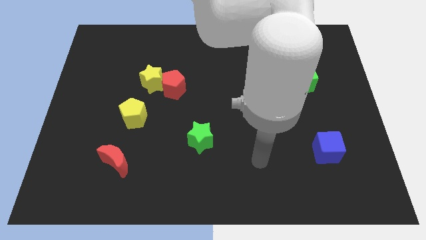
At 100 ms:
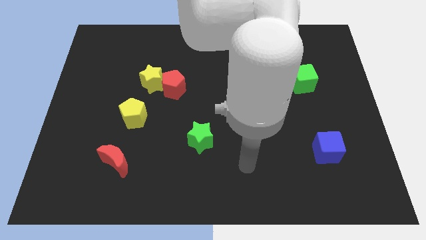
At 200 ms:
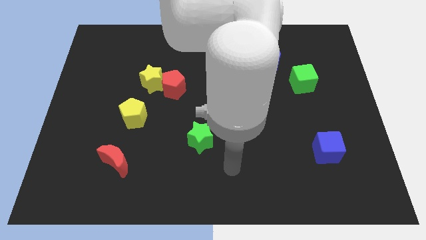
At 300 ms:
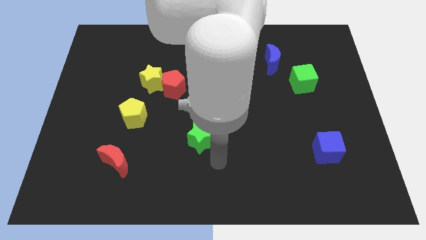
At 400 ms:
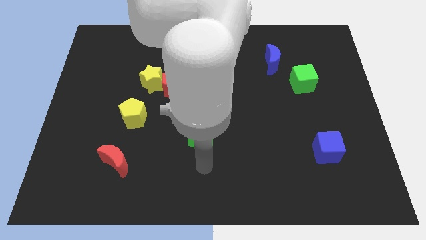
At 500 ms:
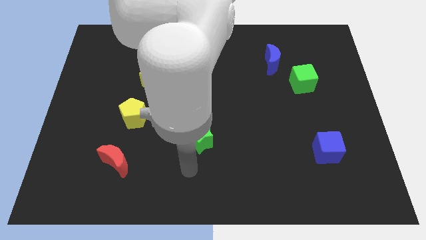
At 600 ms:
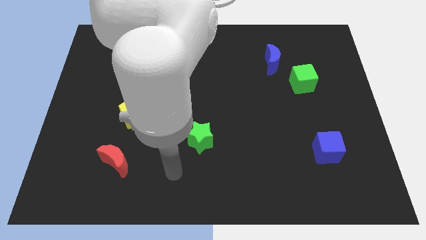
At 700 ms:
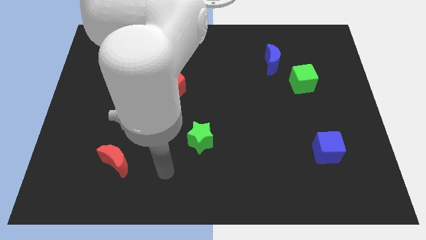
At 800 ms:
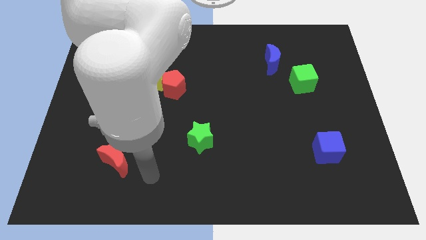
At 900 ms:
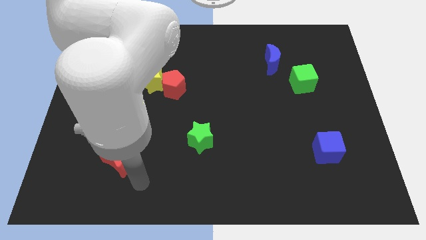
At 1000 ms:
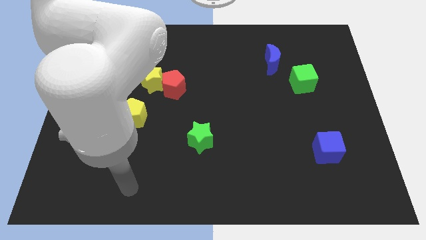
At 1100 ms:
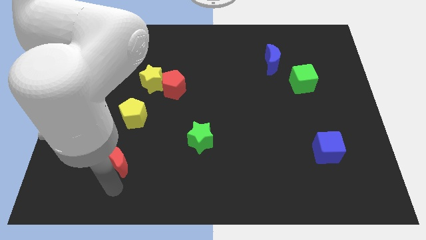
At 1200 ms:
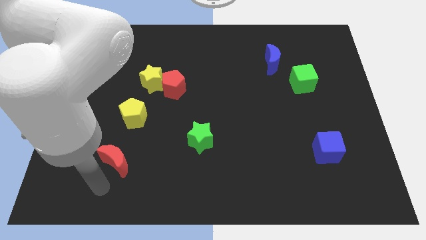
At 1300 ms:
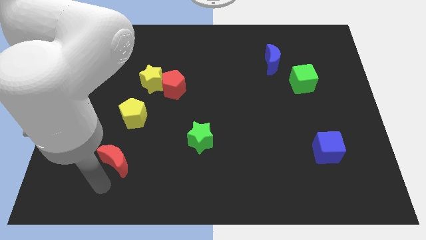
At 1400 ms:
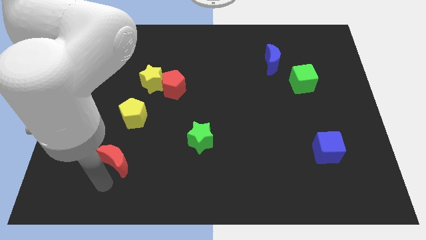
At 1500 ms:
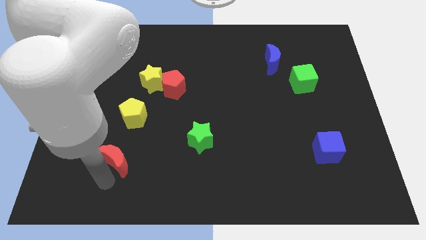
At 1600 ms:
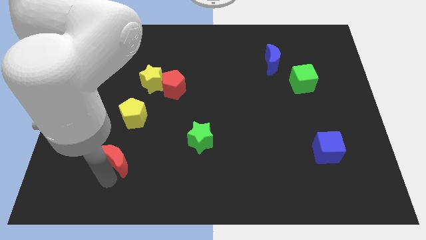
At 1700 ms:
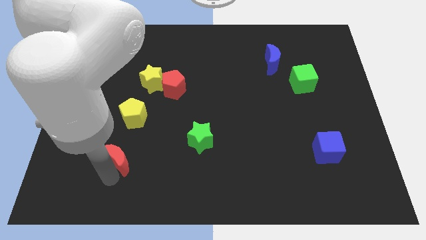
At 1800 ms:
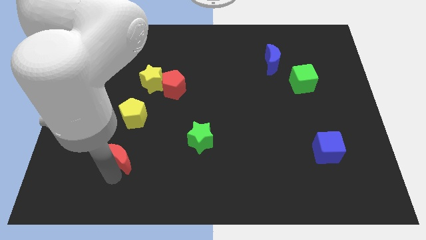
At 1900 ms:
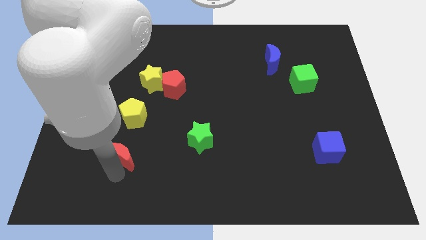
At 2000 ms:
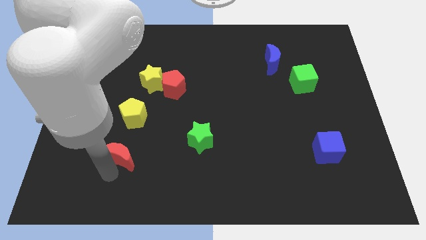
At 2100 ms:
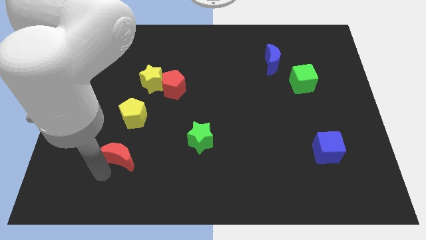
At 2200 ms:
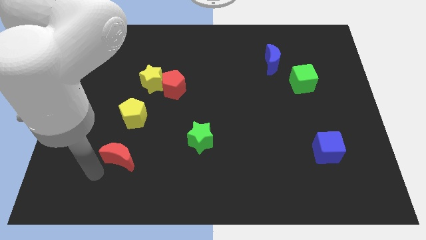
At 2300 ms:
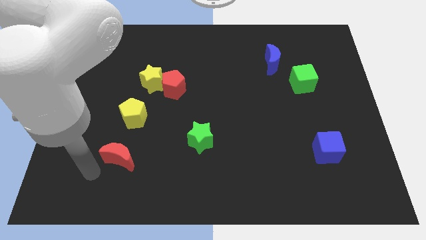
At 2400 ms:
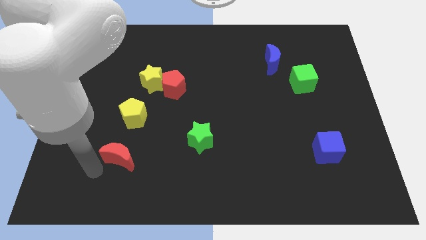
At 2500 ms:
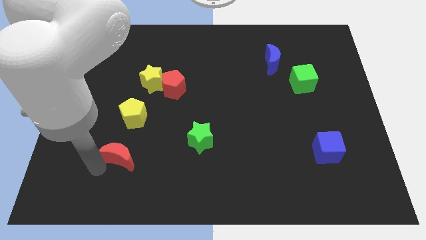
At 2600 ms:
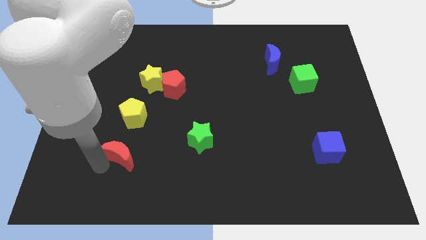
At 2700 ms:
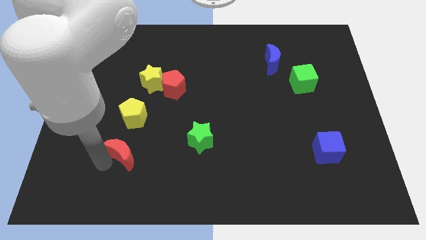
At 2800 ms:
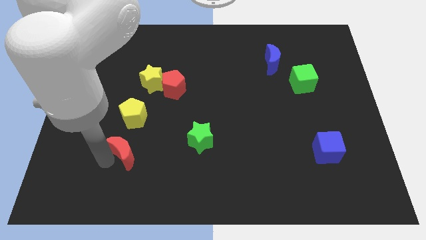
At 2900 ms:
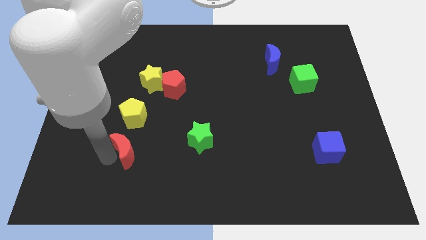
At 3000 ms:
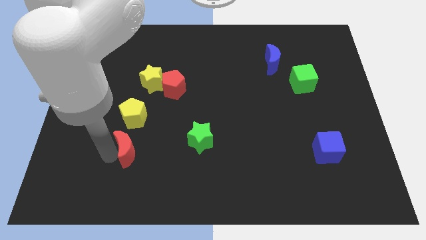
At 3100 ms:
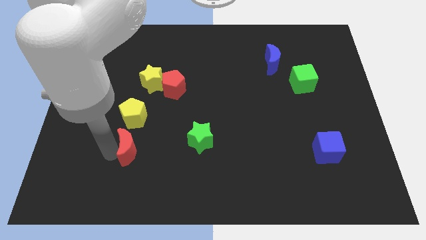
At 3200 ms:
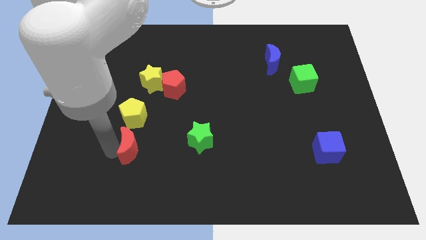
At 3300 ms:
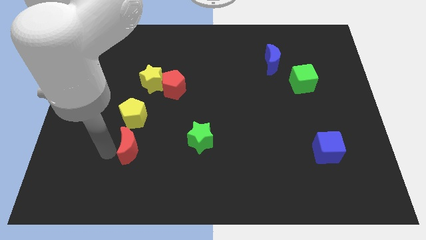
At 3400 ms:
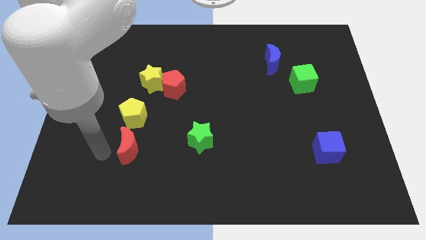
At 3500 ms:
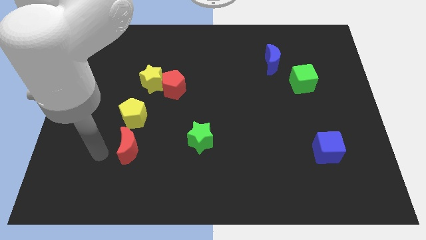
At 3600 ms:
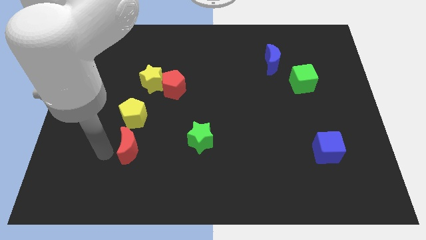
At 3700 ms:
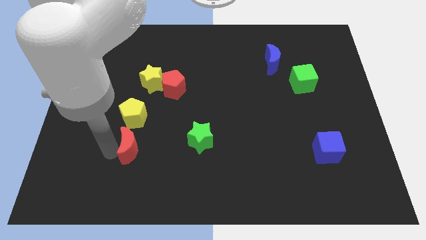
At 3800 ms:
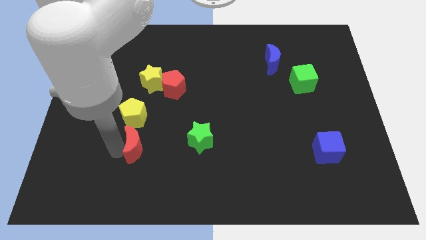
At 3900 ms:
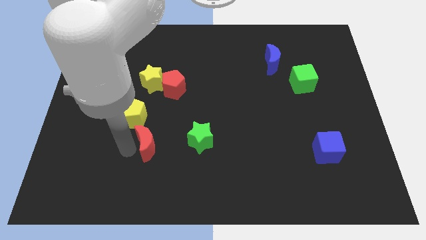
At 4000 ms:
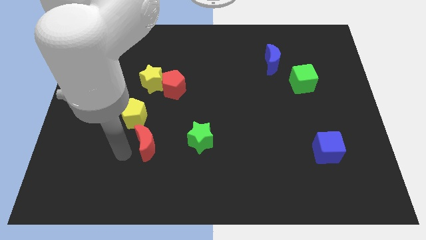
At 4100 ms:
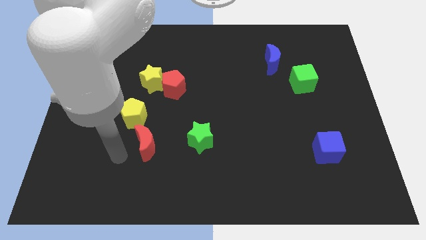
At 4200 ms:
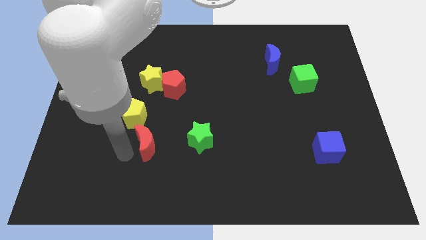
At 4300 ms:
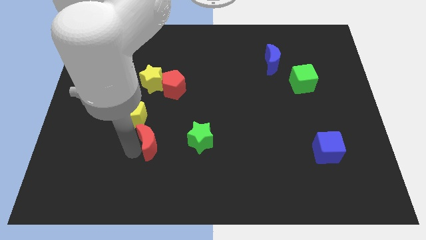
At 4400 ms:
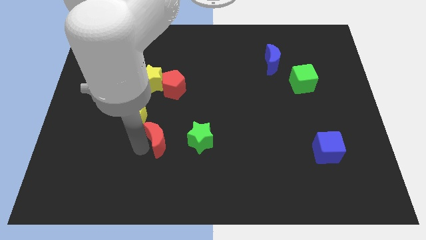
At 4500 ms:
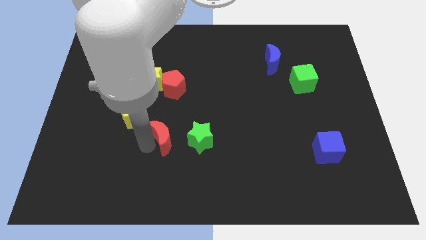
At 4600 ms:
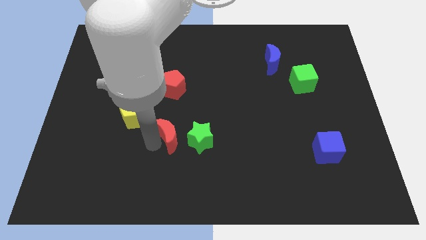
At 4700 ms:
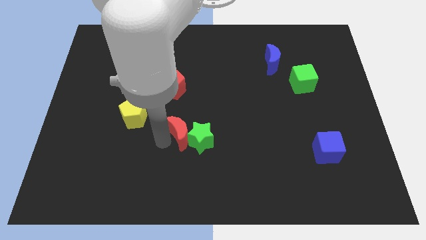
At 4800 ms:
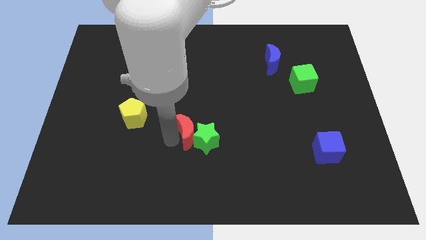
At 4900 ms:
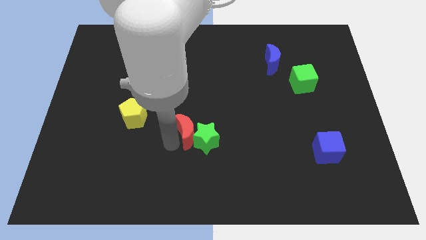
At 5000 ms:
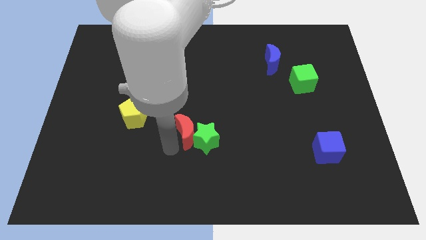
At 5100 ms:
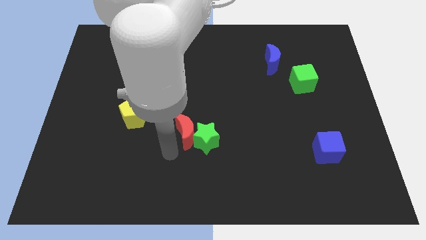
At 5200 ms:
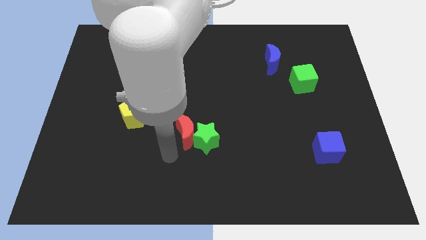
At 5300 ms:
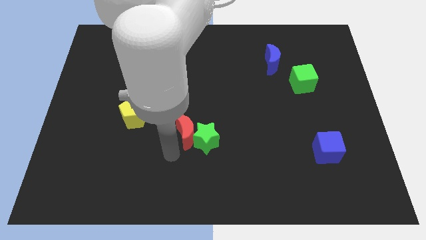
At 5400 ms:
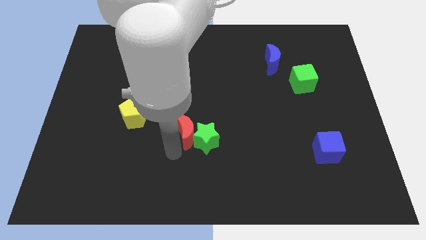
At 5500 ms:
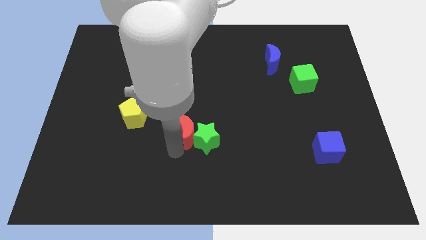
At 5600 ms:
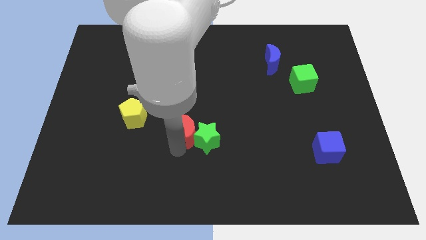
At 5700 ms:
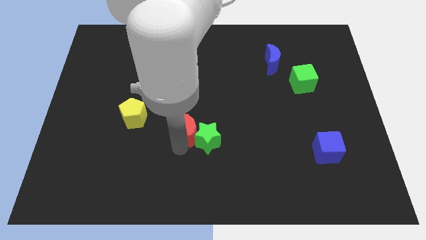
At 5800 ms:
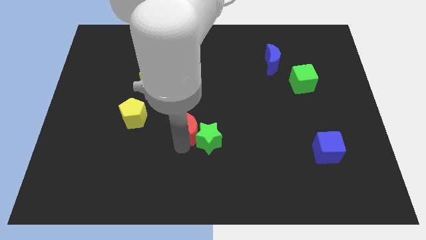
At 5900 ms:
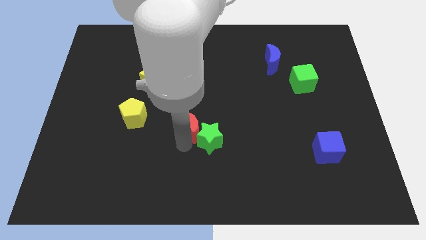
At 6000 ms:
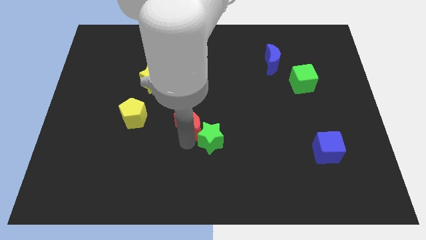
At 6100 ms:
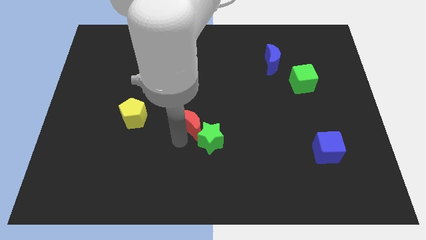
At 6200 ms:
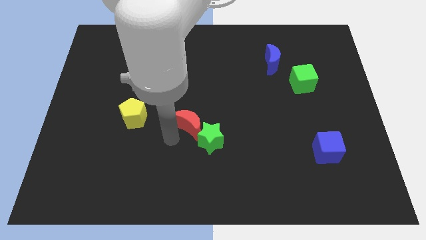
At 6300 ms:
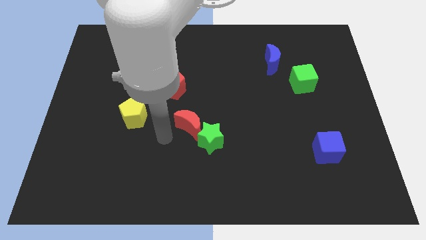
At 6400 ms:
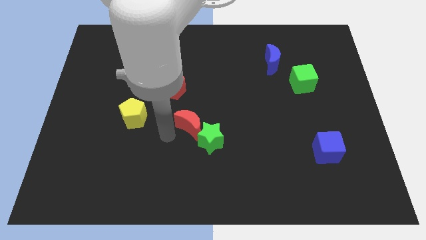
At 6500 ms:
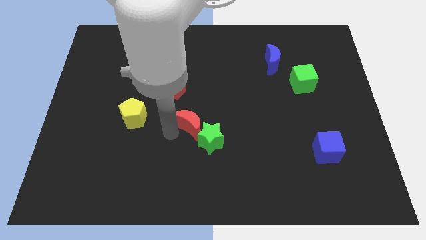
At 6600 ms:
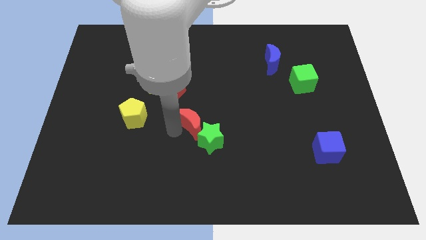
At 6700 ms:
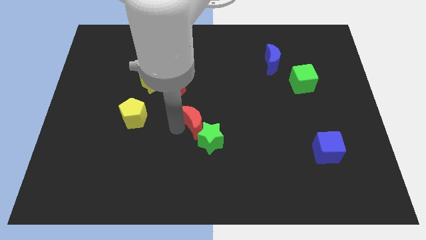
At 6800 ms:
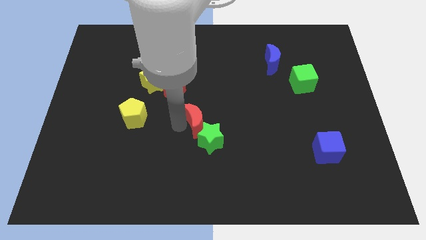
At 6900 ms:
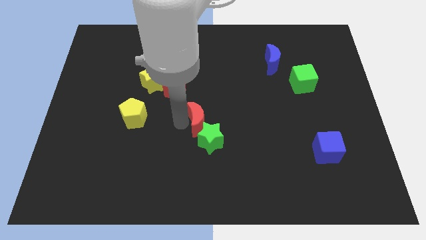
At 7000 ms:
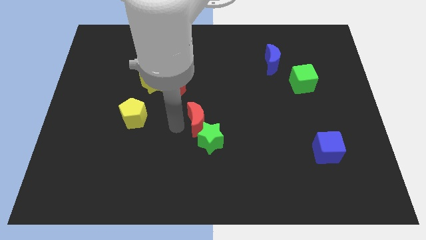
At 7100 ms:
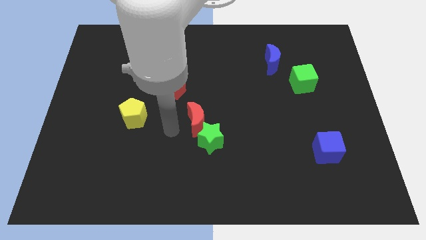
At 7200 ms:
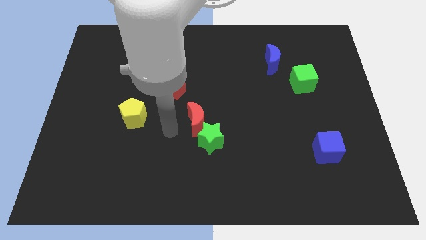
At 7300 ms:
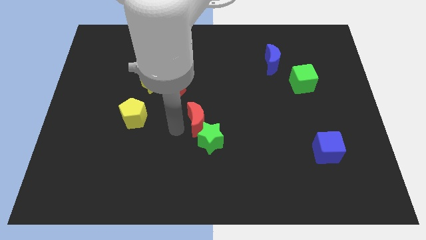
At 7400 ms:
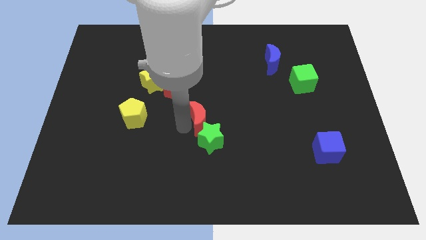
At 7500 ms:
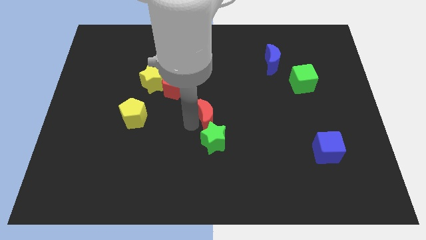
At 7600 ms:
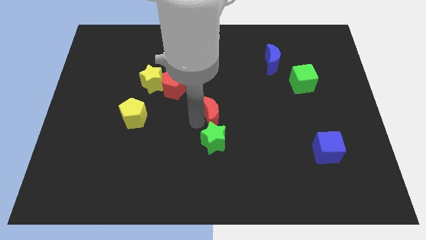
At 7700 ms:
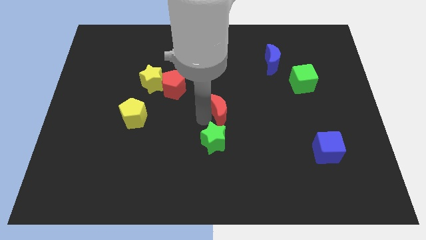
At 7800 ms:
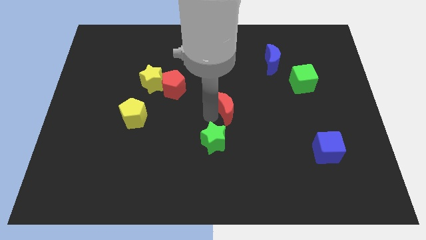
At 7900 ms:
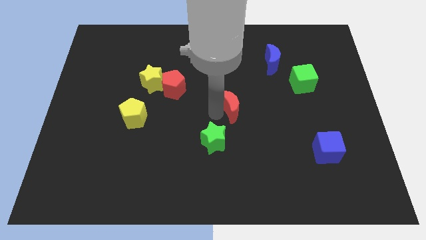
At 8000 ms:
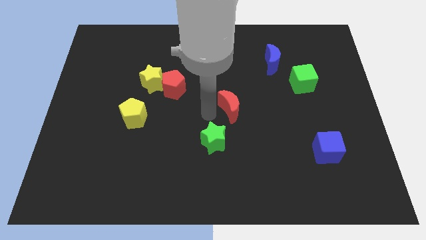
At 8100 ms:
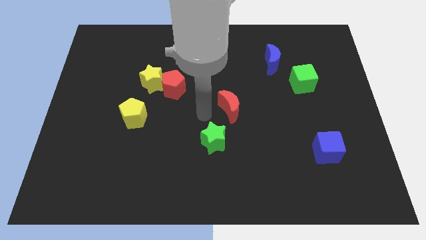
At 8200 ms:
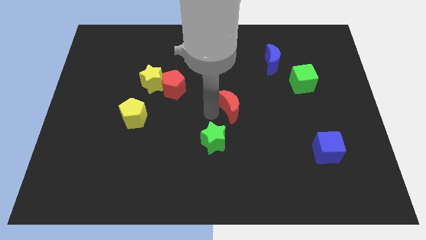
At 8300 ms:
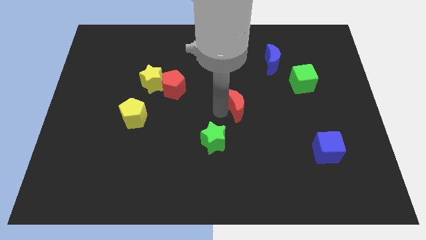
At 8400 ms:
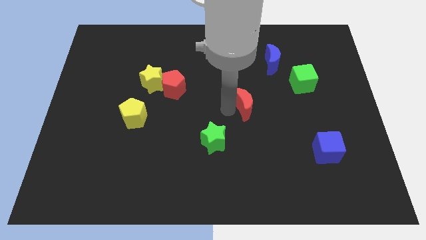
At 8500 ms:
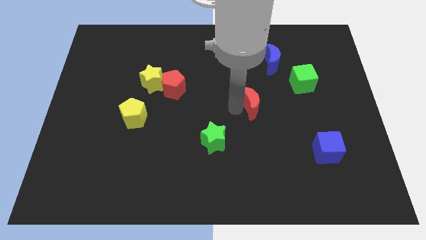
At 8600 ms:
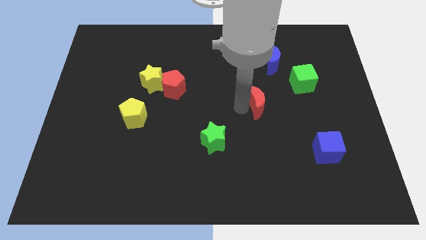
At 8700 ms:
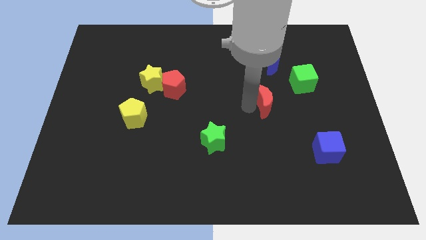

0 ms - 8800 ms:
push the red moon diagonally down and to the left of the green cube

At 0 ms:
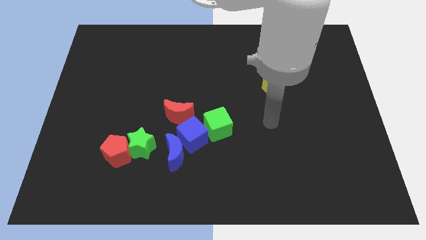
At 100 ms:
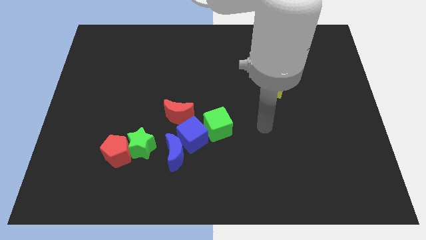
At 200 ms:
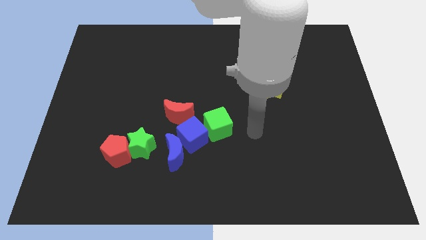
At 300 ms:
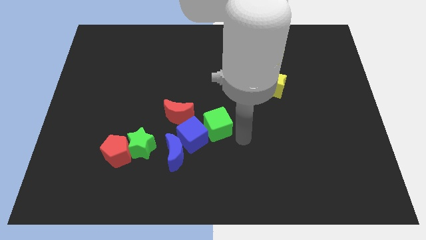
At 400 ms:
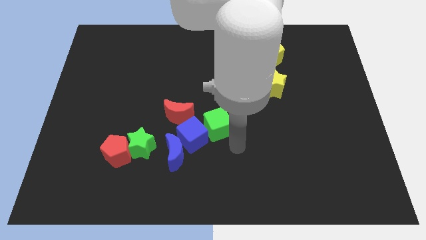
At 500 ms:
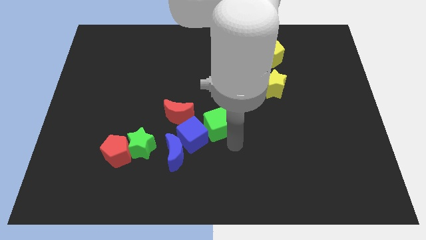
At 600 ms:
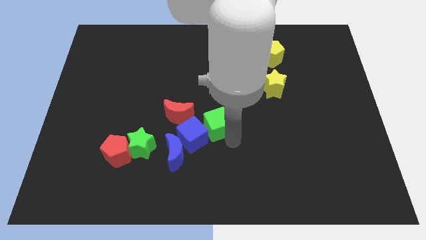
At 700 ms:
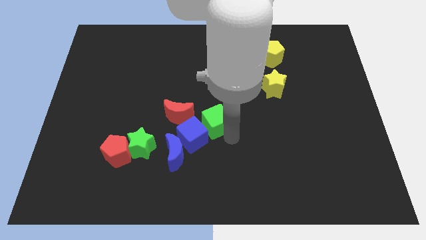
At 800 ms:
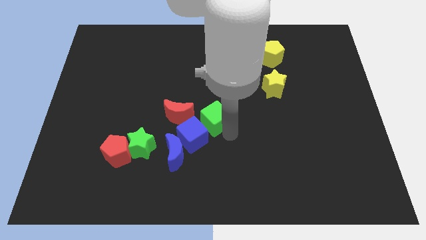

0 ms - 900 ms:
put the green cube to the top side of the blue cube
